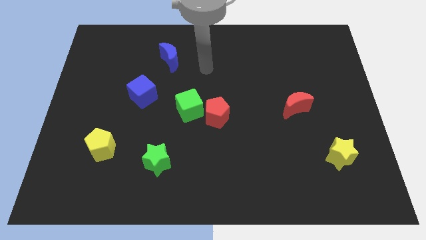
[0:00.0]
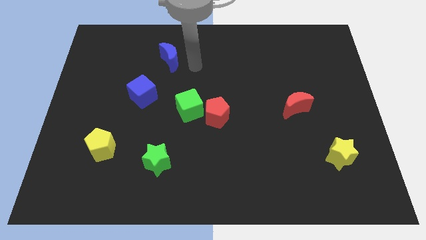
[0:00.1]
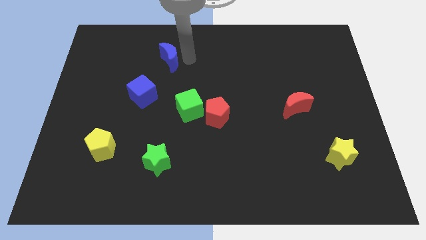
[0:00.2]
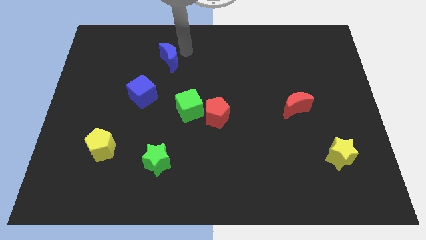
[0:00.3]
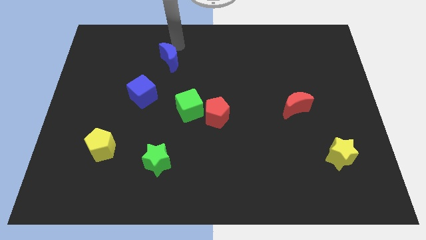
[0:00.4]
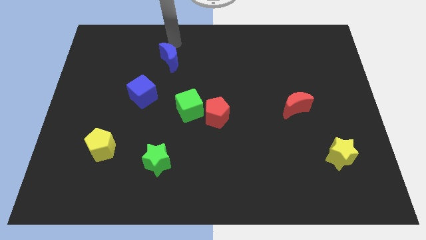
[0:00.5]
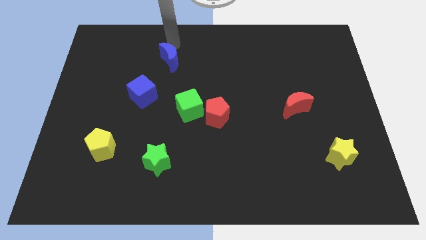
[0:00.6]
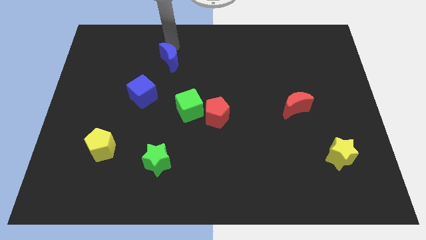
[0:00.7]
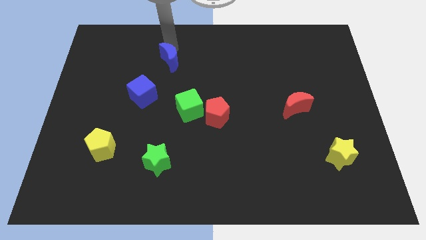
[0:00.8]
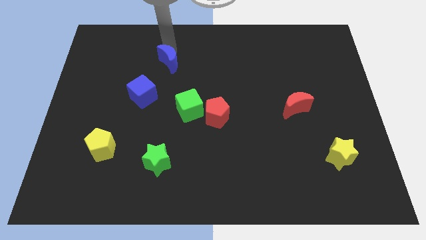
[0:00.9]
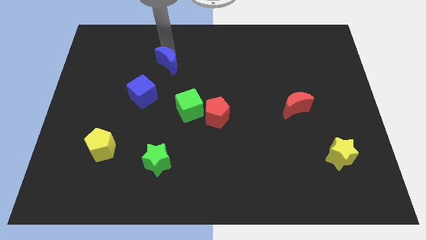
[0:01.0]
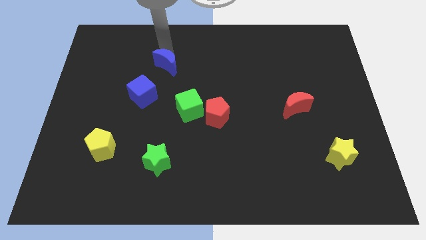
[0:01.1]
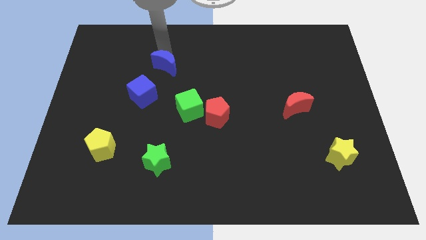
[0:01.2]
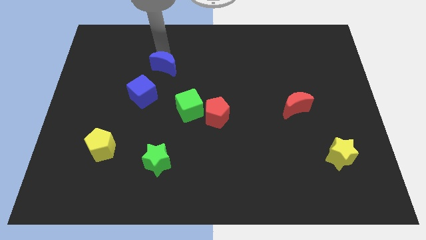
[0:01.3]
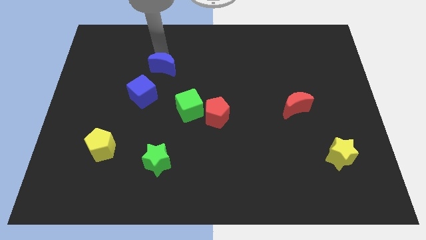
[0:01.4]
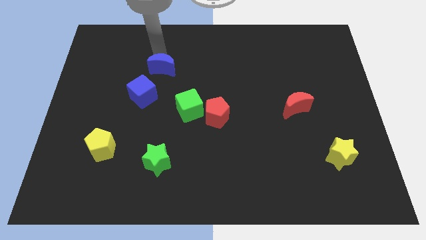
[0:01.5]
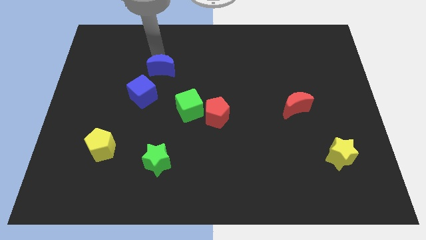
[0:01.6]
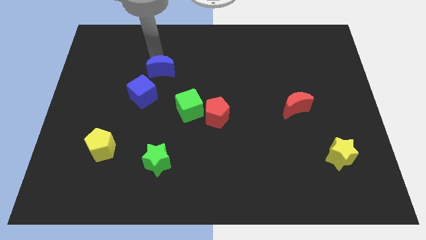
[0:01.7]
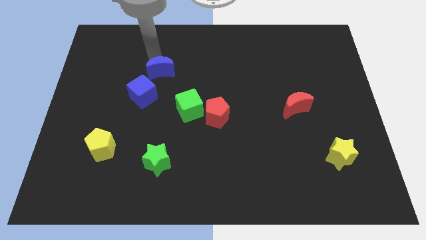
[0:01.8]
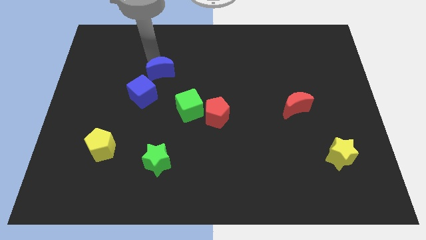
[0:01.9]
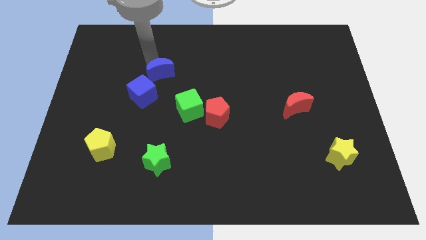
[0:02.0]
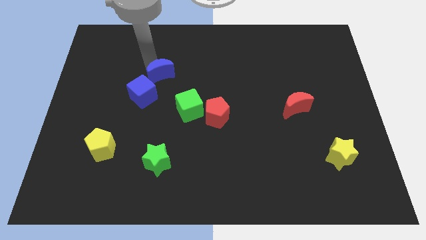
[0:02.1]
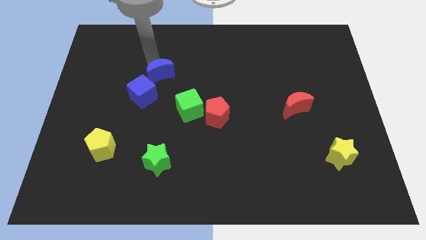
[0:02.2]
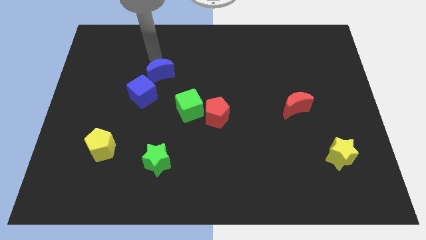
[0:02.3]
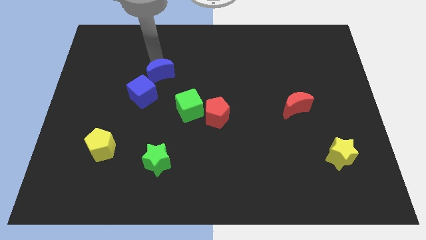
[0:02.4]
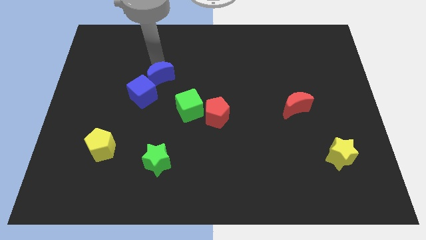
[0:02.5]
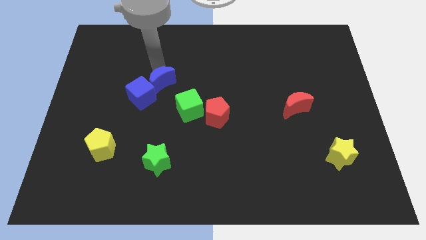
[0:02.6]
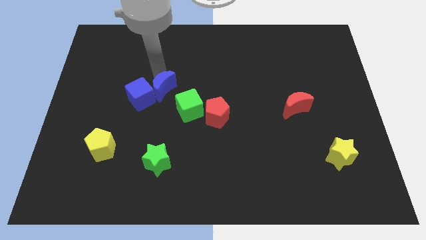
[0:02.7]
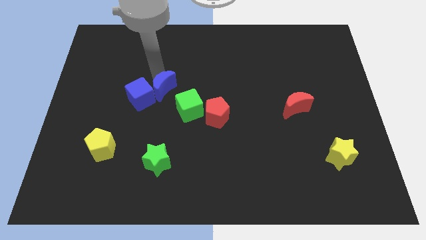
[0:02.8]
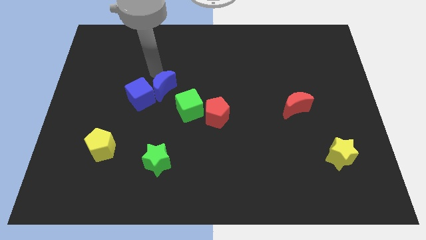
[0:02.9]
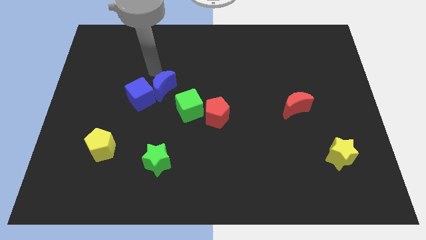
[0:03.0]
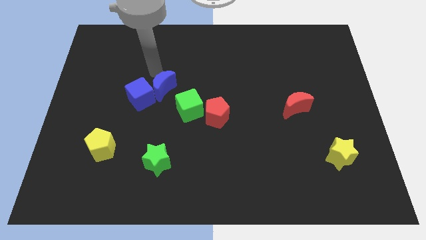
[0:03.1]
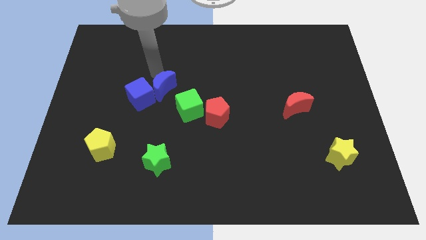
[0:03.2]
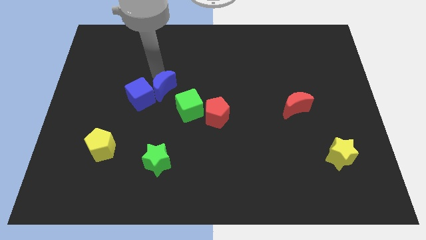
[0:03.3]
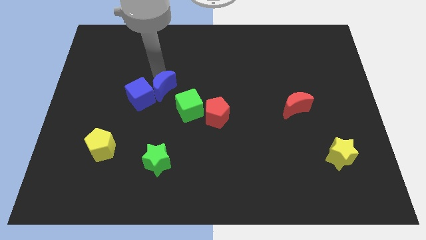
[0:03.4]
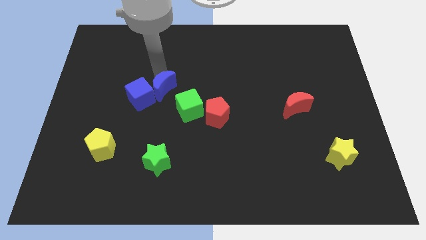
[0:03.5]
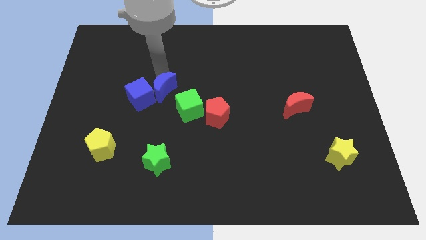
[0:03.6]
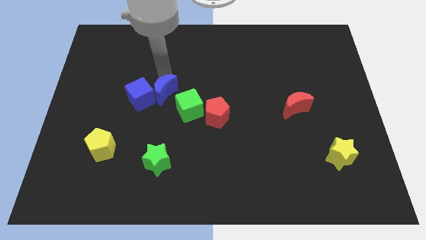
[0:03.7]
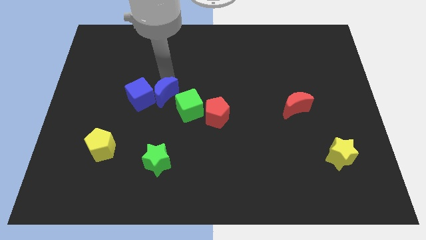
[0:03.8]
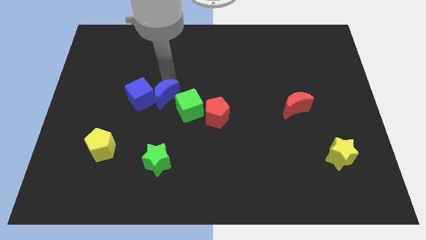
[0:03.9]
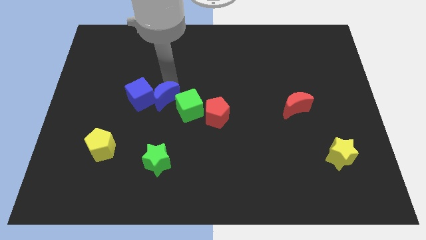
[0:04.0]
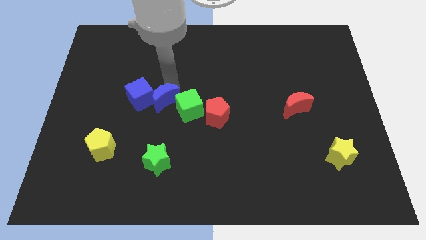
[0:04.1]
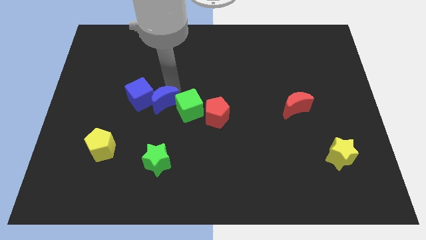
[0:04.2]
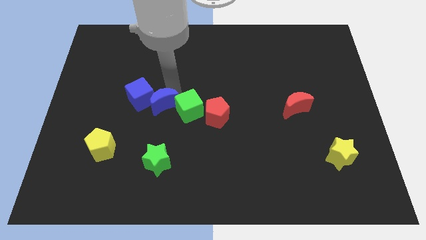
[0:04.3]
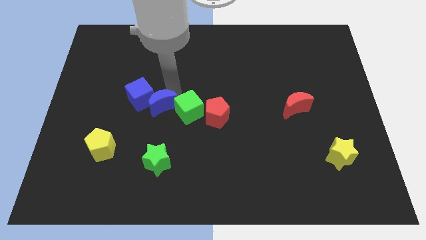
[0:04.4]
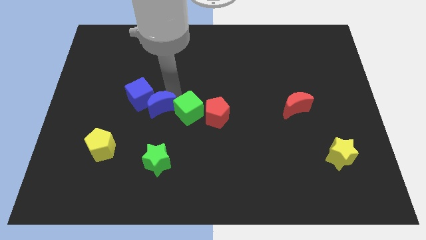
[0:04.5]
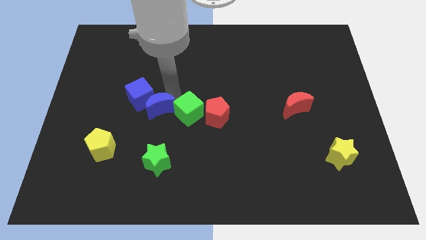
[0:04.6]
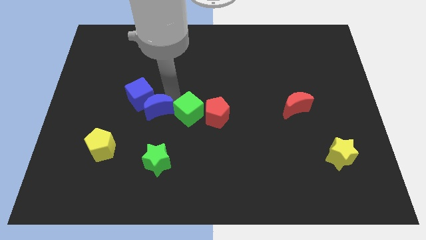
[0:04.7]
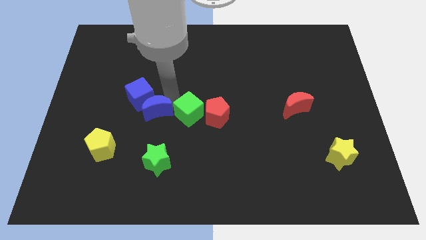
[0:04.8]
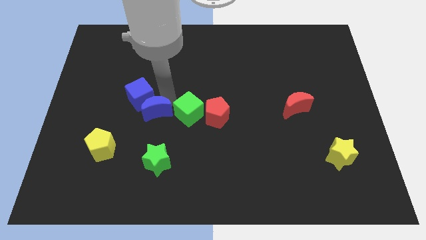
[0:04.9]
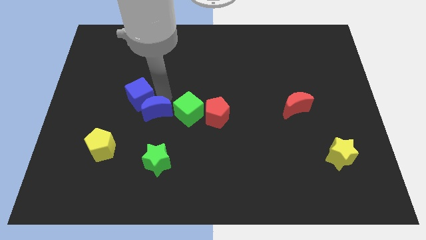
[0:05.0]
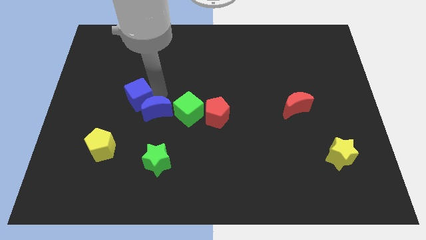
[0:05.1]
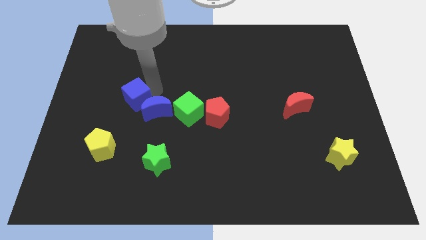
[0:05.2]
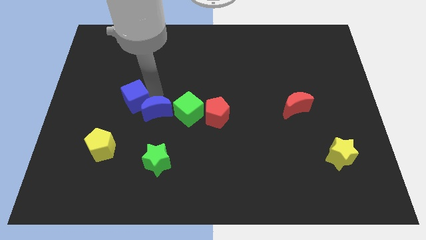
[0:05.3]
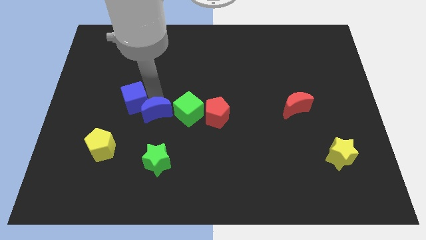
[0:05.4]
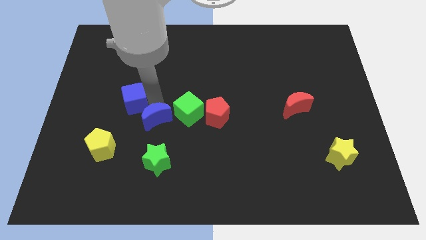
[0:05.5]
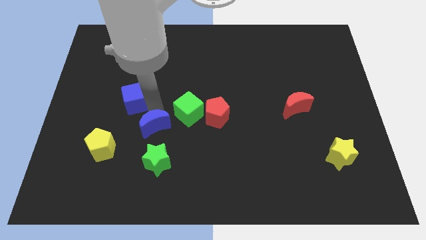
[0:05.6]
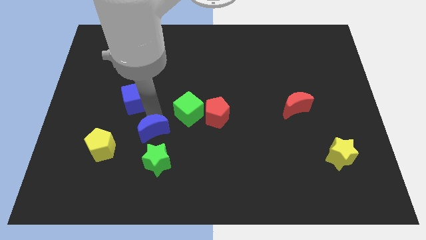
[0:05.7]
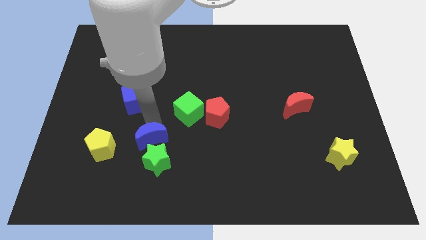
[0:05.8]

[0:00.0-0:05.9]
push the blue moon next to the green star

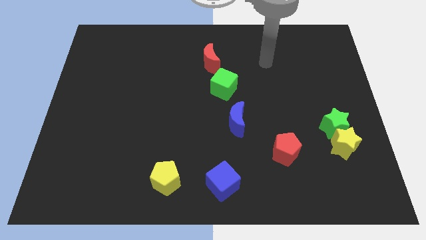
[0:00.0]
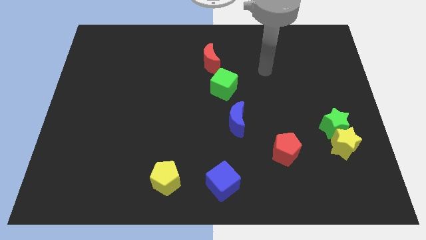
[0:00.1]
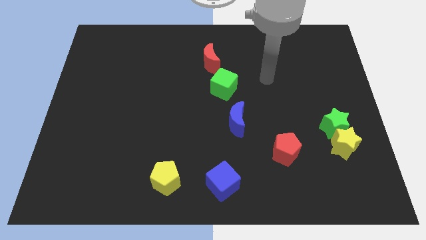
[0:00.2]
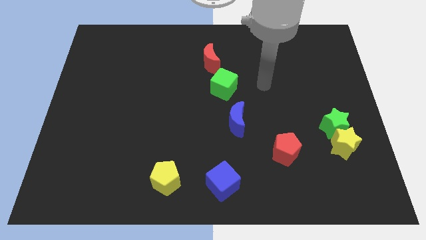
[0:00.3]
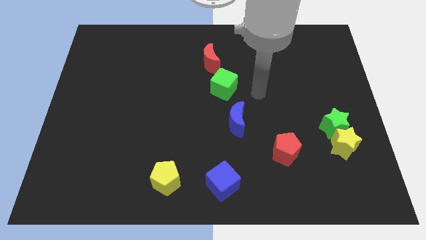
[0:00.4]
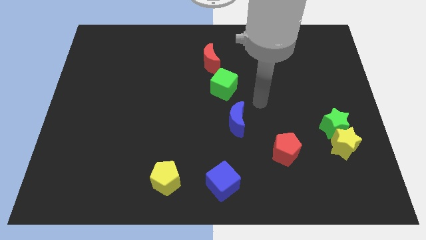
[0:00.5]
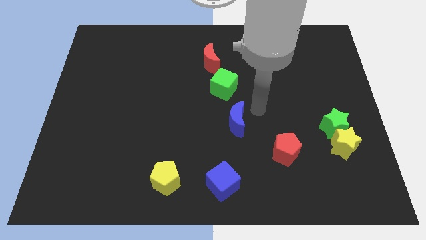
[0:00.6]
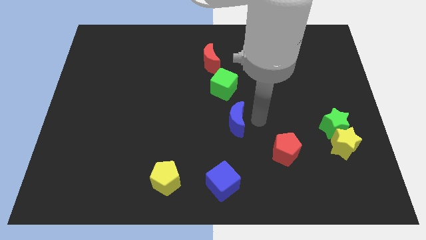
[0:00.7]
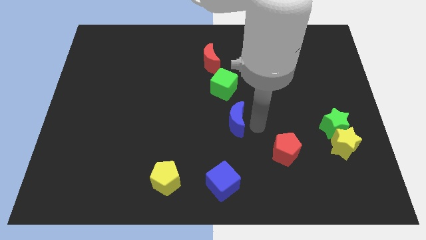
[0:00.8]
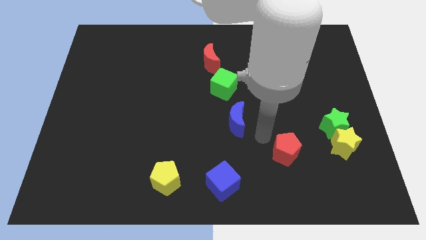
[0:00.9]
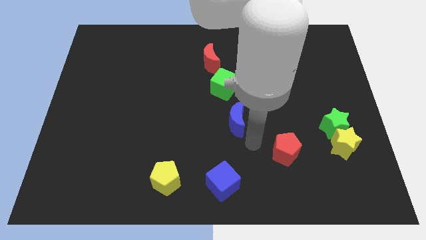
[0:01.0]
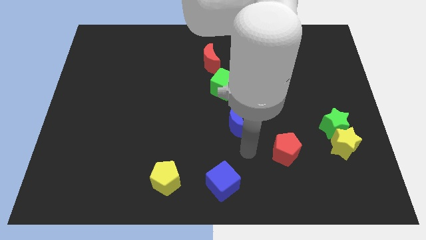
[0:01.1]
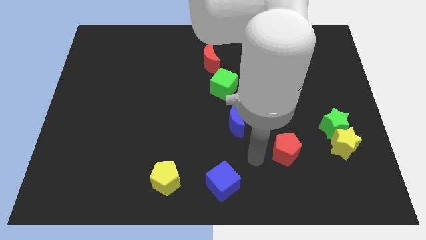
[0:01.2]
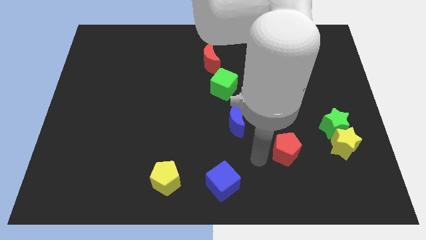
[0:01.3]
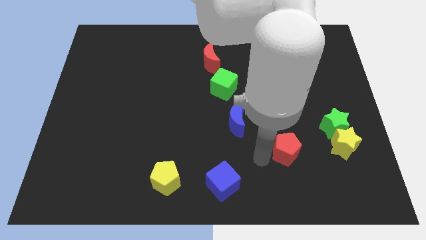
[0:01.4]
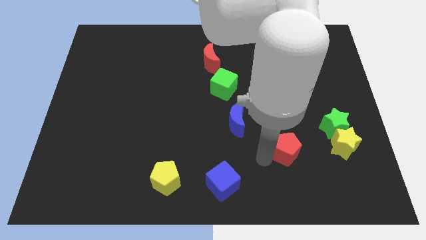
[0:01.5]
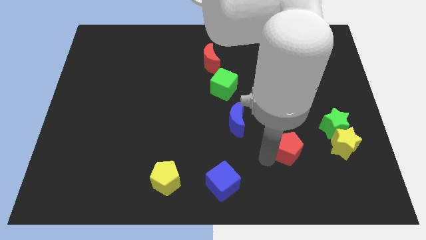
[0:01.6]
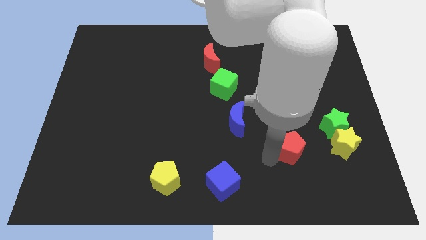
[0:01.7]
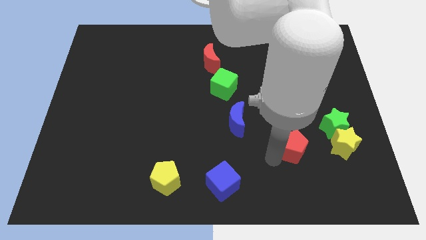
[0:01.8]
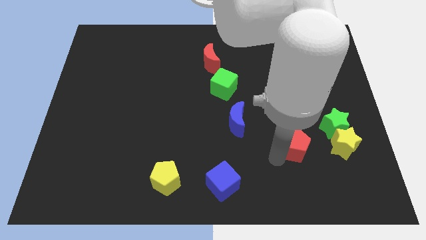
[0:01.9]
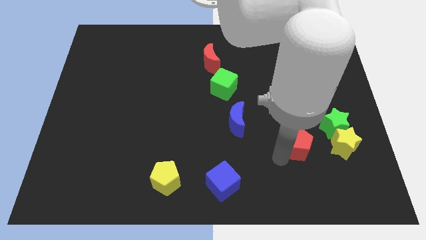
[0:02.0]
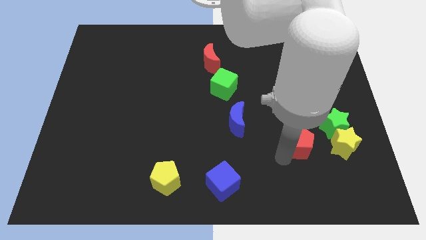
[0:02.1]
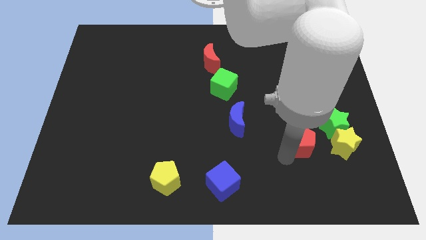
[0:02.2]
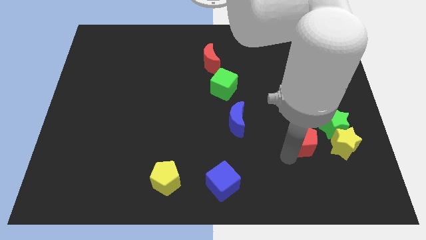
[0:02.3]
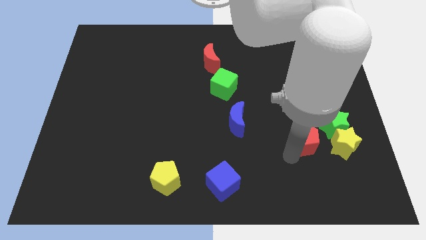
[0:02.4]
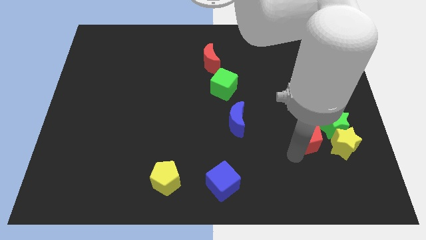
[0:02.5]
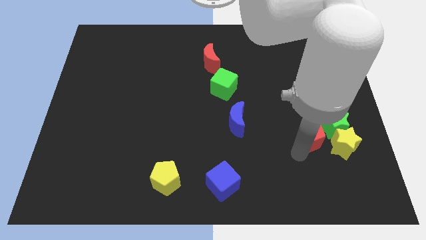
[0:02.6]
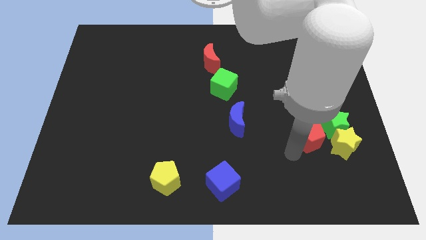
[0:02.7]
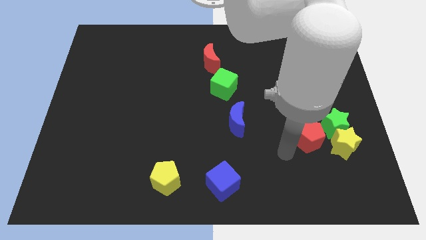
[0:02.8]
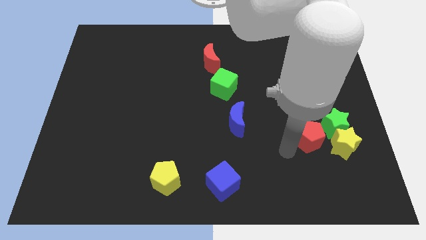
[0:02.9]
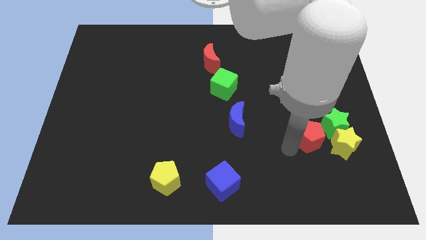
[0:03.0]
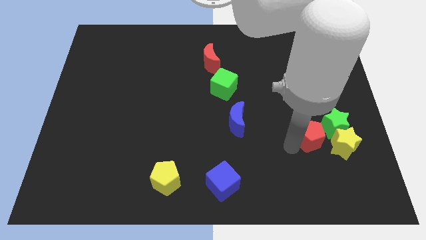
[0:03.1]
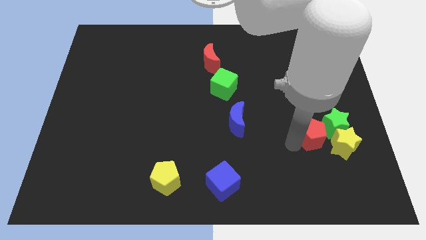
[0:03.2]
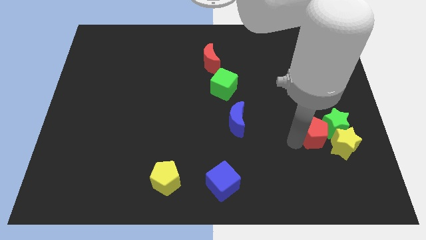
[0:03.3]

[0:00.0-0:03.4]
slide the red pentagon to the green star
